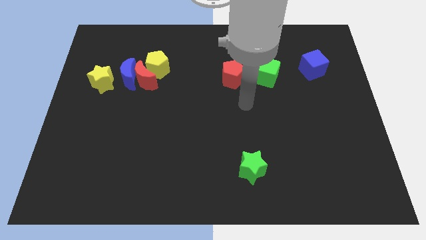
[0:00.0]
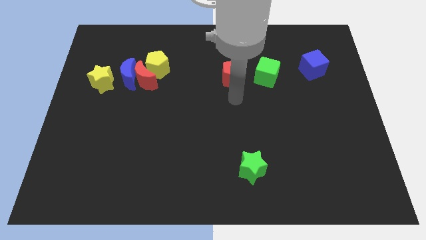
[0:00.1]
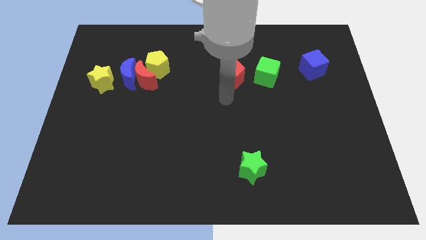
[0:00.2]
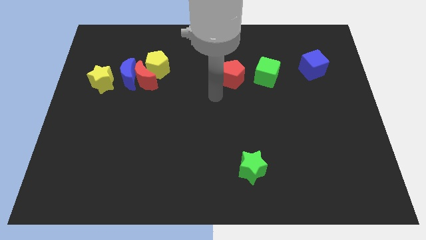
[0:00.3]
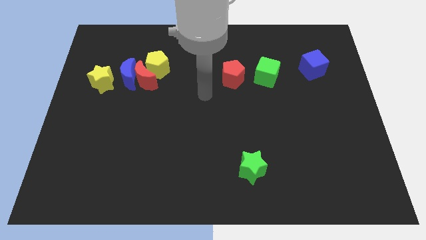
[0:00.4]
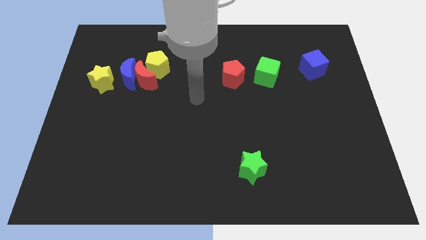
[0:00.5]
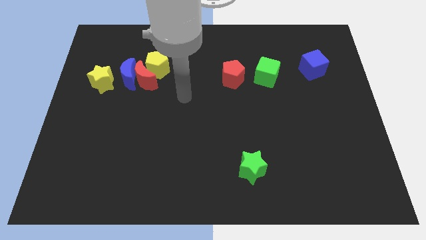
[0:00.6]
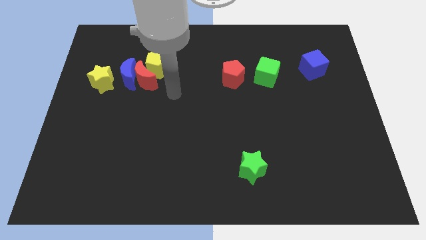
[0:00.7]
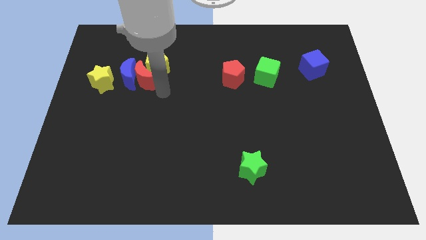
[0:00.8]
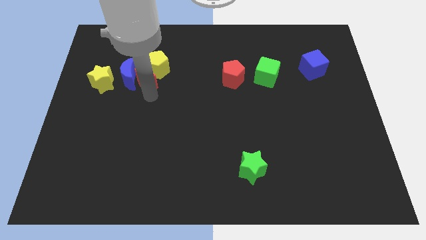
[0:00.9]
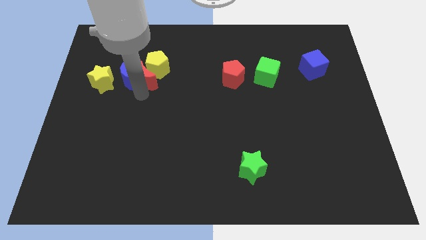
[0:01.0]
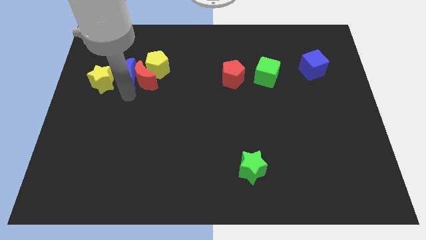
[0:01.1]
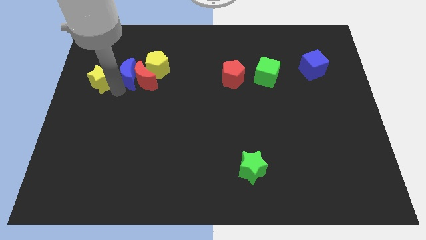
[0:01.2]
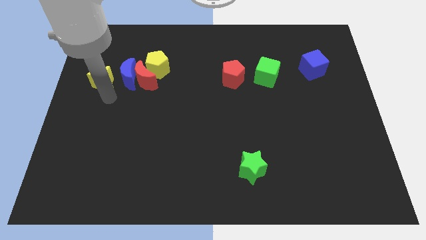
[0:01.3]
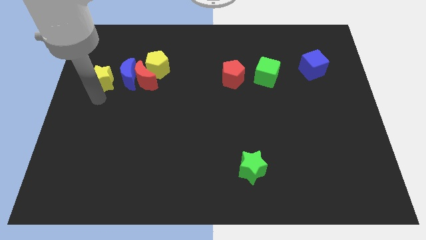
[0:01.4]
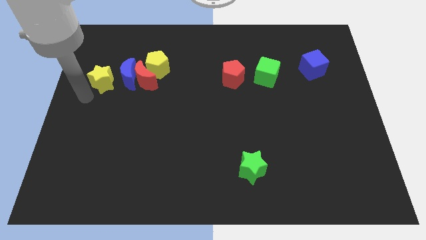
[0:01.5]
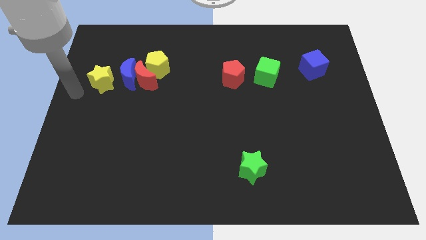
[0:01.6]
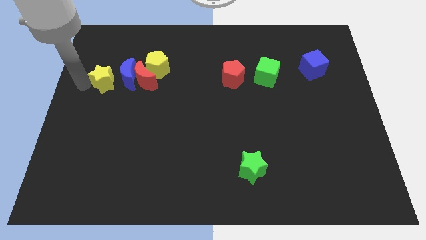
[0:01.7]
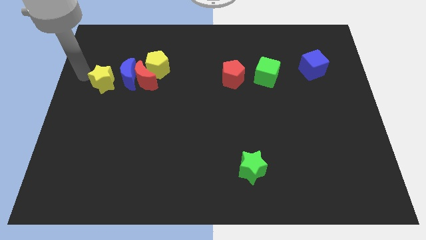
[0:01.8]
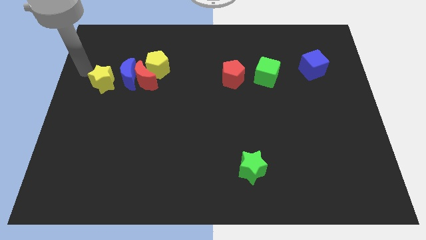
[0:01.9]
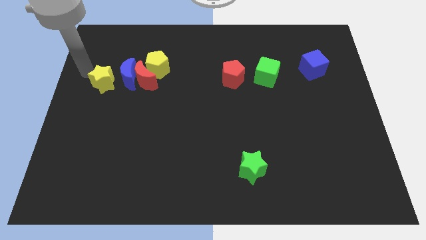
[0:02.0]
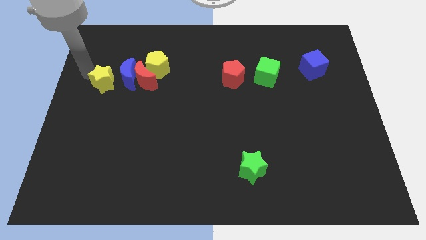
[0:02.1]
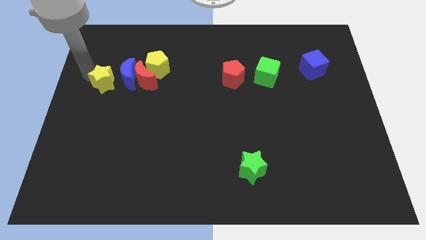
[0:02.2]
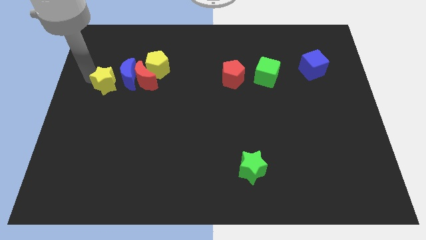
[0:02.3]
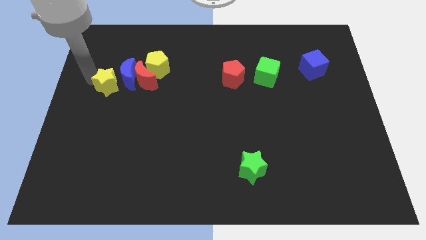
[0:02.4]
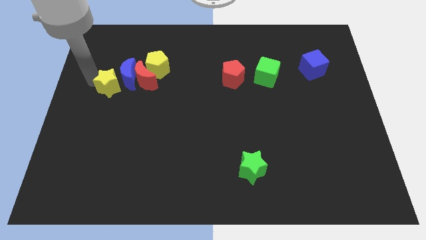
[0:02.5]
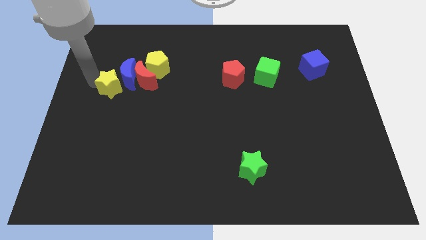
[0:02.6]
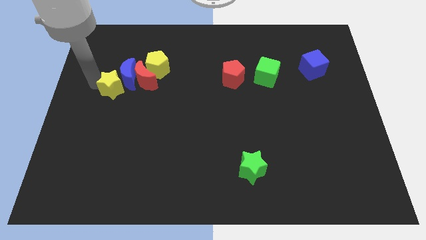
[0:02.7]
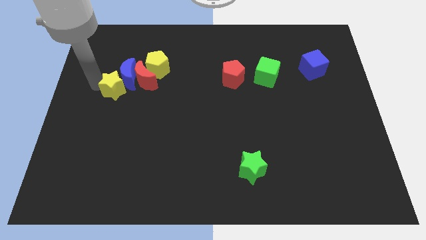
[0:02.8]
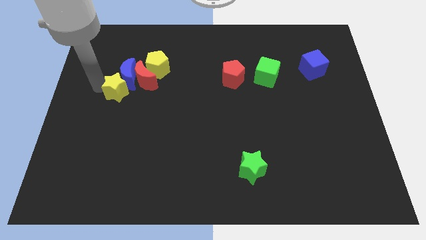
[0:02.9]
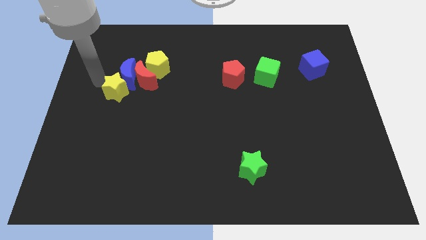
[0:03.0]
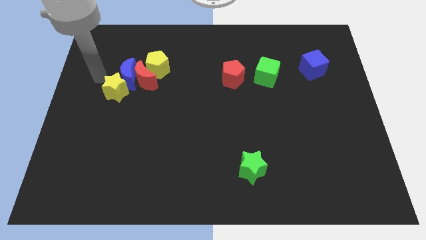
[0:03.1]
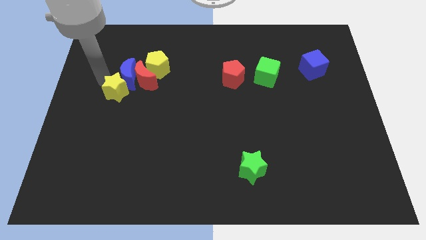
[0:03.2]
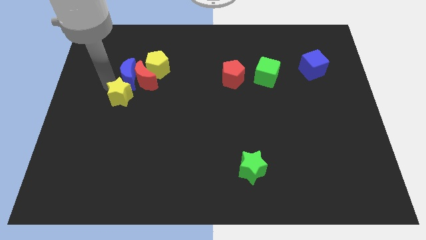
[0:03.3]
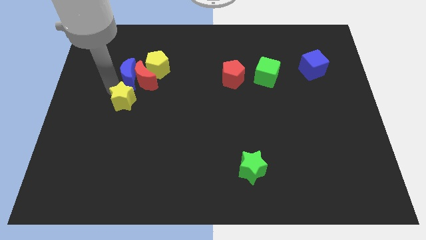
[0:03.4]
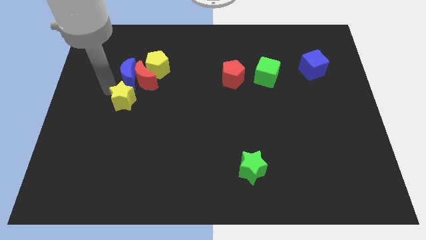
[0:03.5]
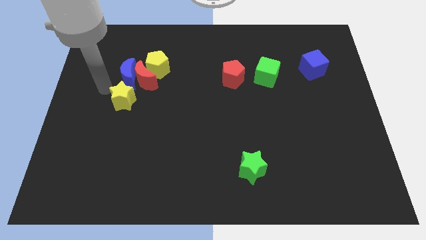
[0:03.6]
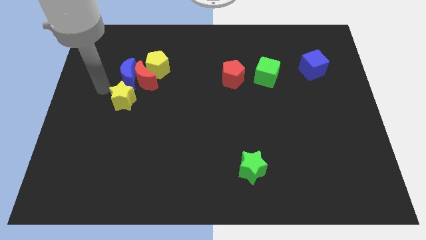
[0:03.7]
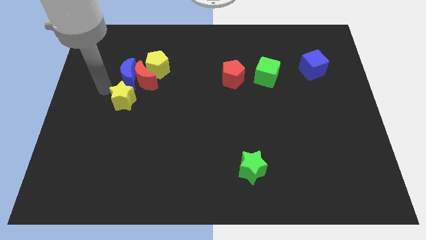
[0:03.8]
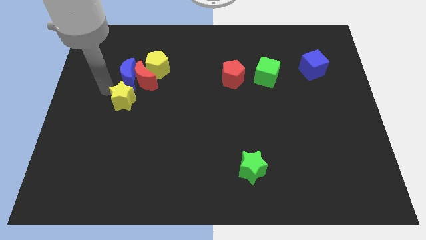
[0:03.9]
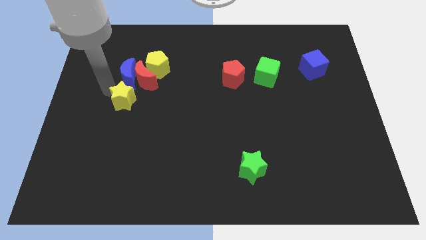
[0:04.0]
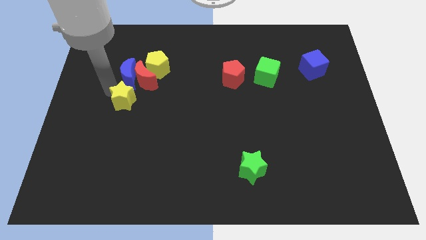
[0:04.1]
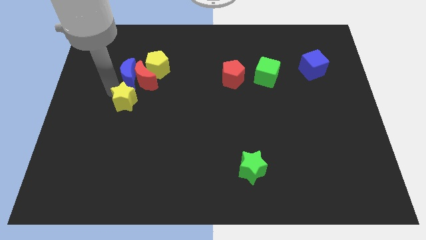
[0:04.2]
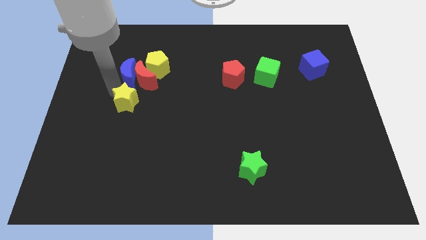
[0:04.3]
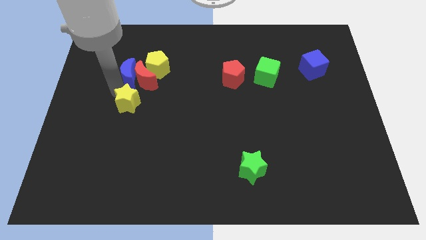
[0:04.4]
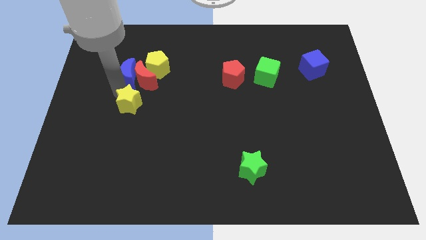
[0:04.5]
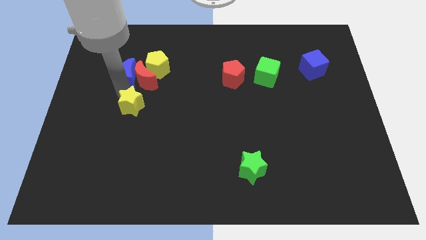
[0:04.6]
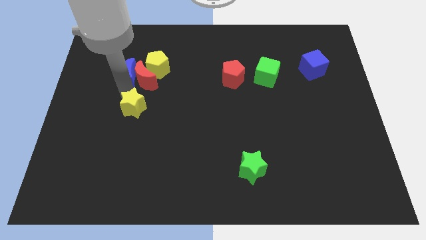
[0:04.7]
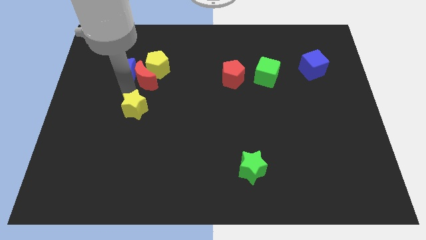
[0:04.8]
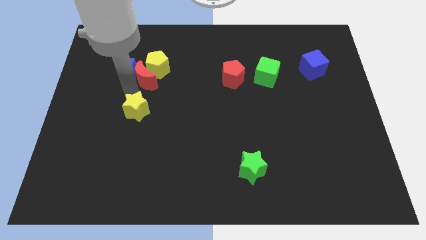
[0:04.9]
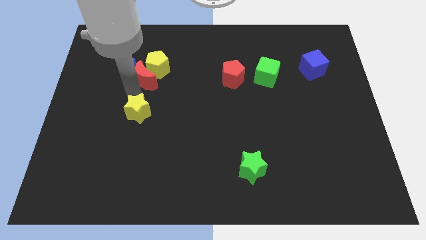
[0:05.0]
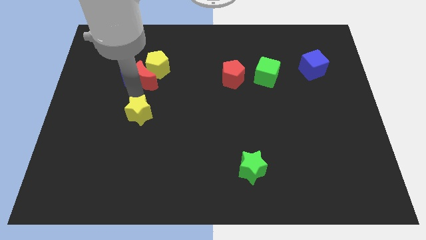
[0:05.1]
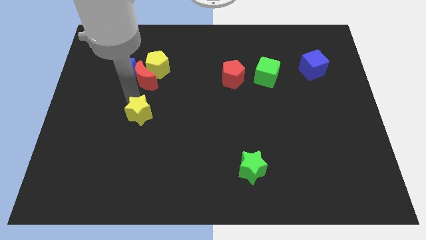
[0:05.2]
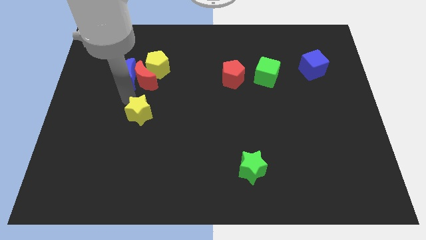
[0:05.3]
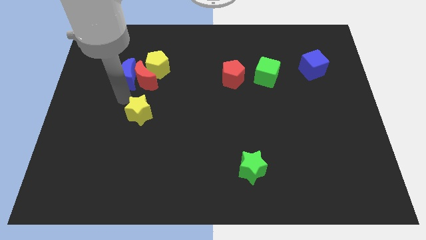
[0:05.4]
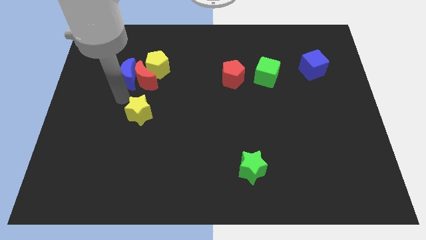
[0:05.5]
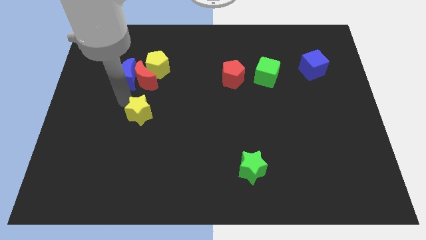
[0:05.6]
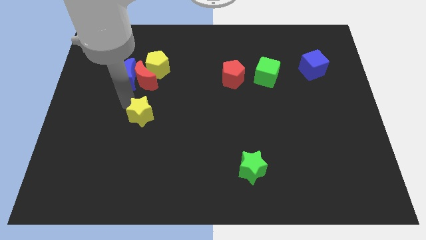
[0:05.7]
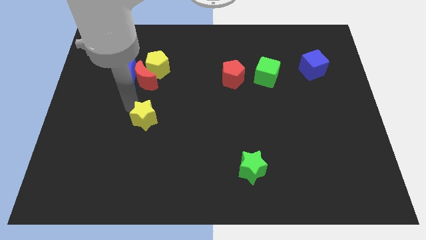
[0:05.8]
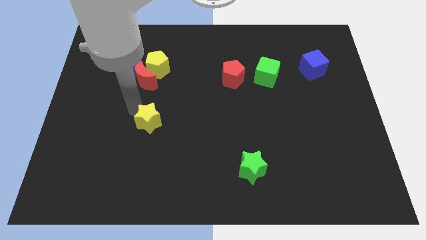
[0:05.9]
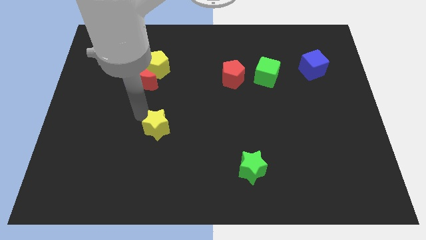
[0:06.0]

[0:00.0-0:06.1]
slide the yellow star diagonally downwards and right

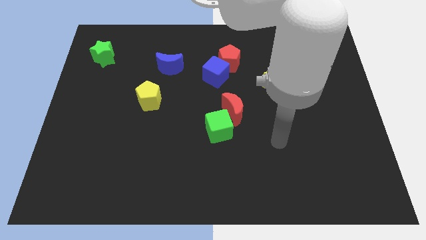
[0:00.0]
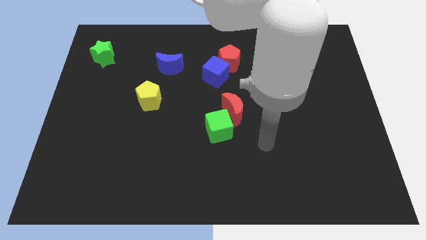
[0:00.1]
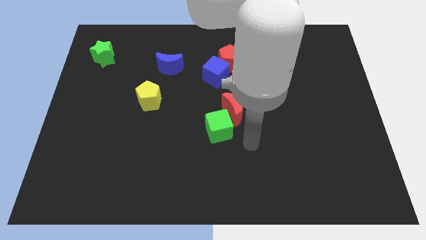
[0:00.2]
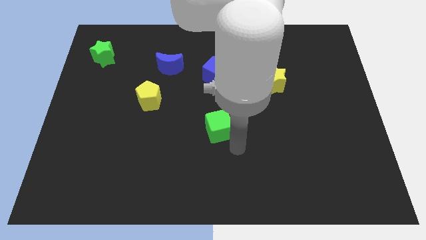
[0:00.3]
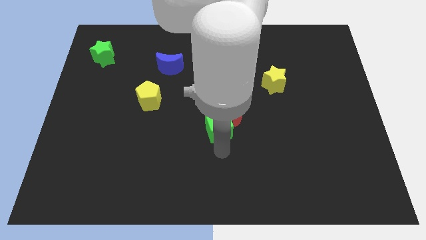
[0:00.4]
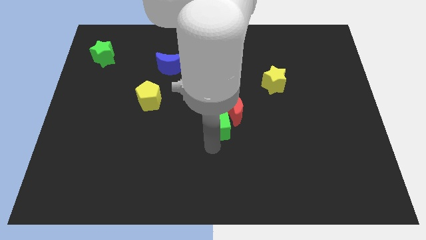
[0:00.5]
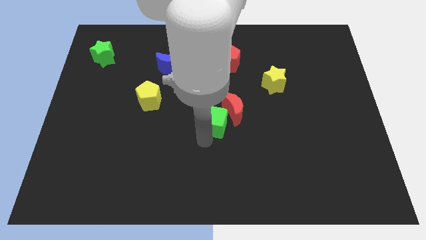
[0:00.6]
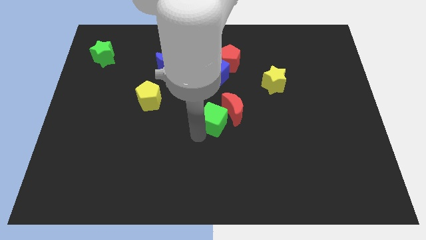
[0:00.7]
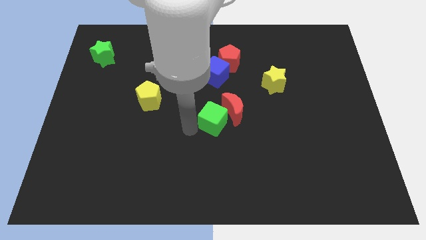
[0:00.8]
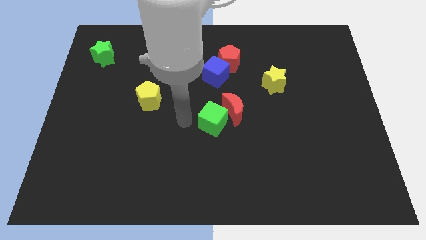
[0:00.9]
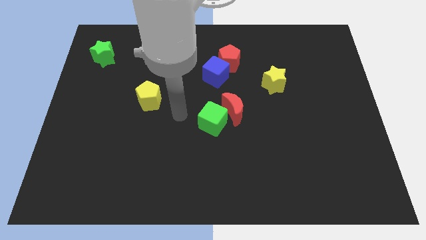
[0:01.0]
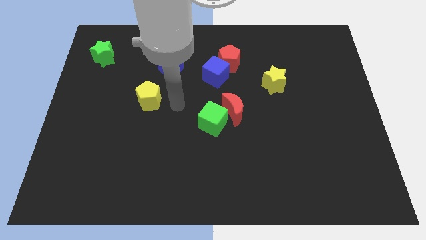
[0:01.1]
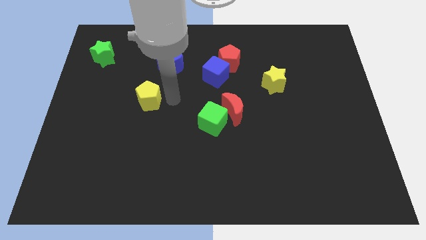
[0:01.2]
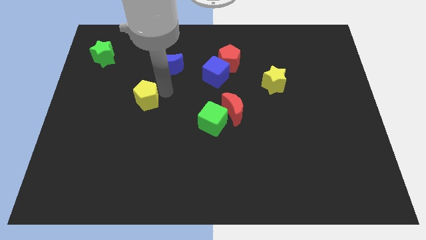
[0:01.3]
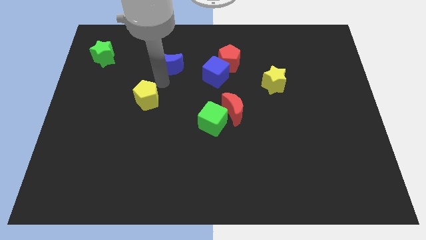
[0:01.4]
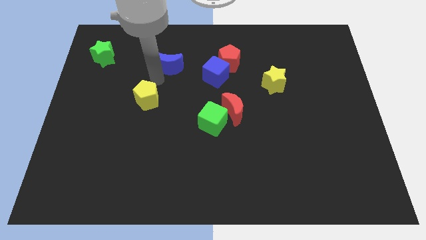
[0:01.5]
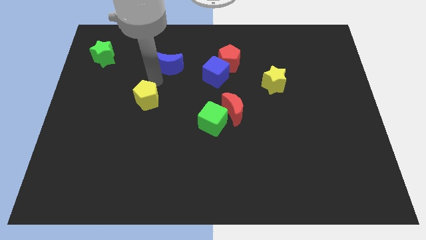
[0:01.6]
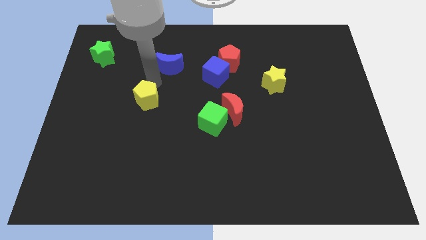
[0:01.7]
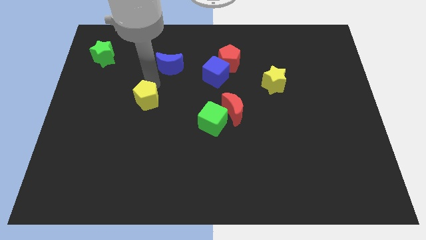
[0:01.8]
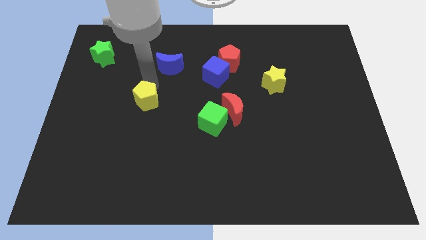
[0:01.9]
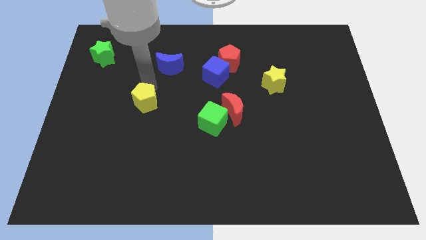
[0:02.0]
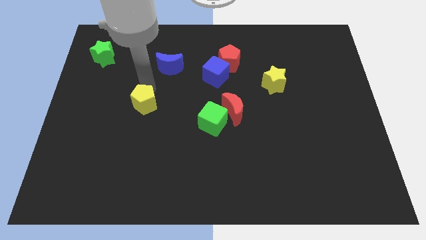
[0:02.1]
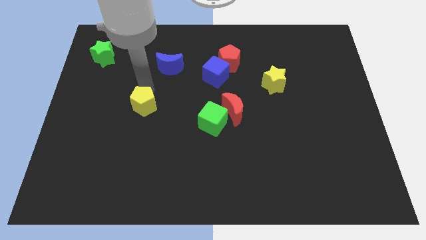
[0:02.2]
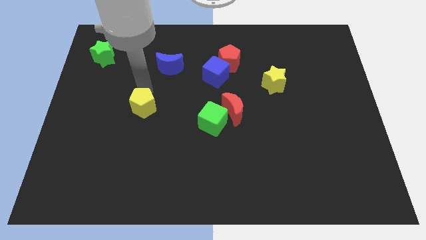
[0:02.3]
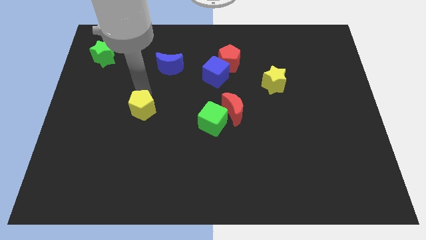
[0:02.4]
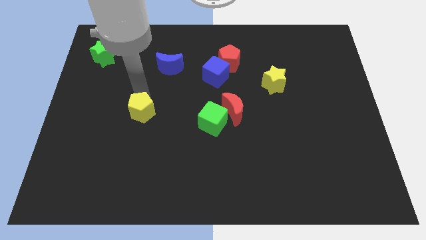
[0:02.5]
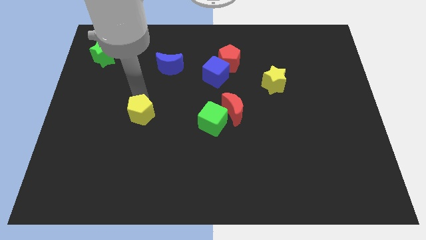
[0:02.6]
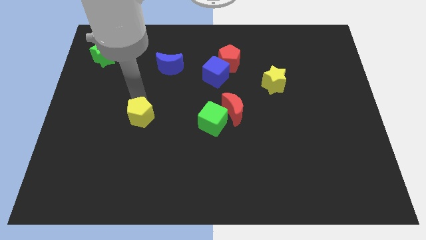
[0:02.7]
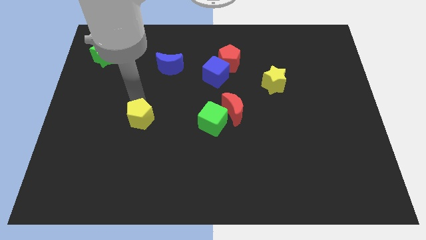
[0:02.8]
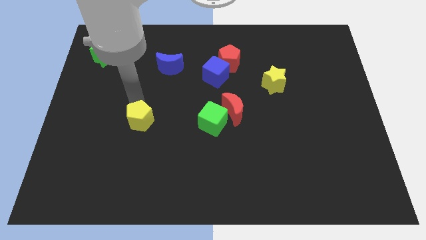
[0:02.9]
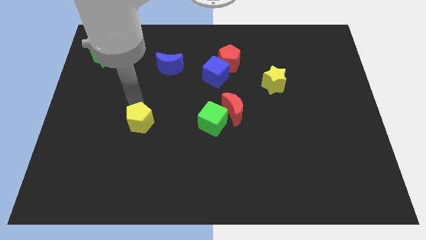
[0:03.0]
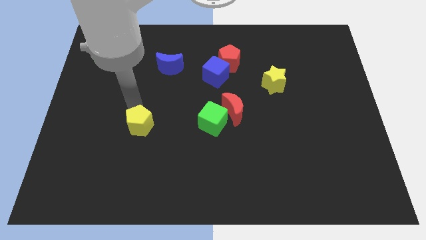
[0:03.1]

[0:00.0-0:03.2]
slide the yellow pentagon a bit down
